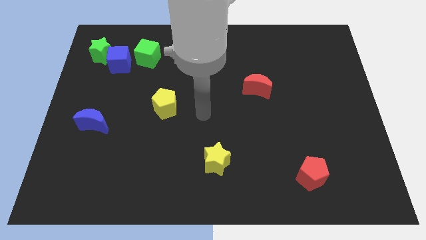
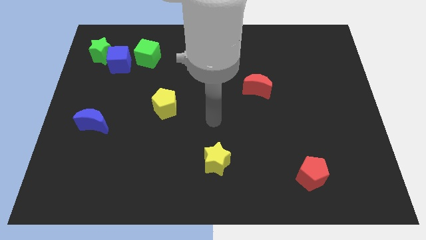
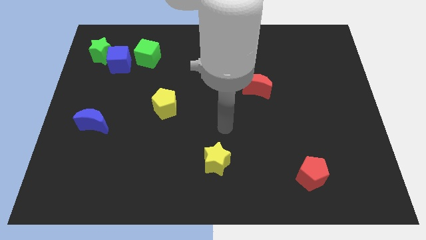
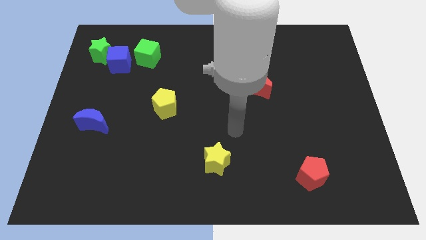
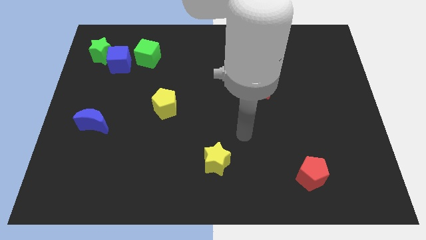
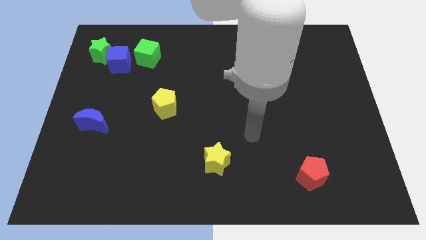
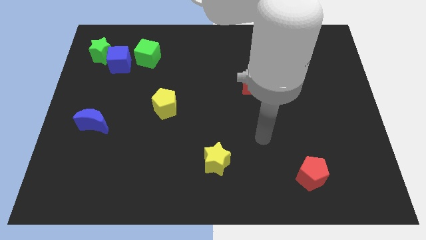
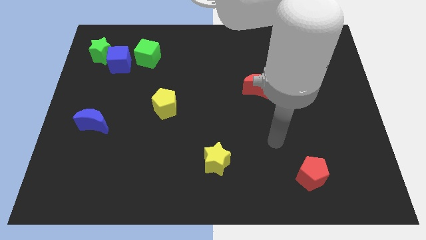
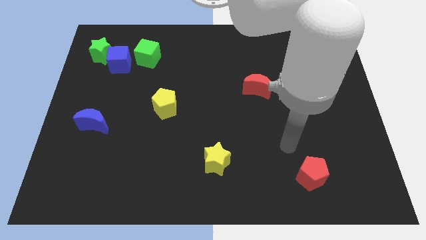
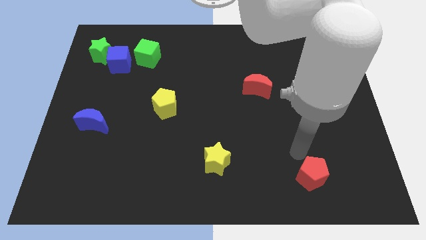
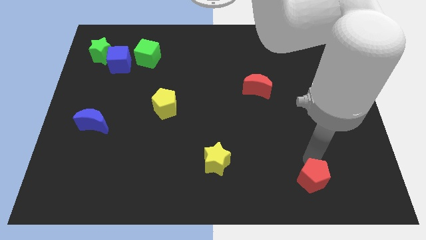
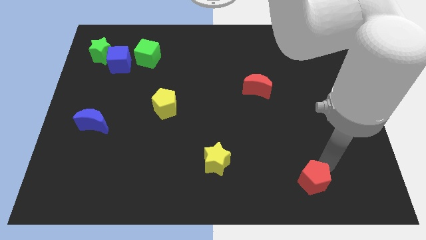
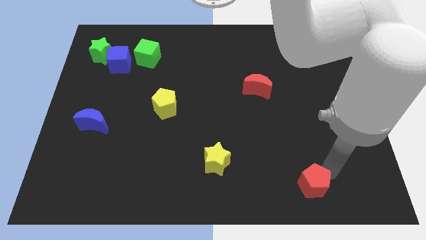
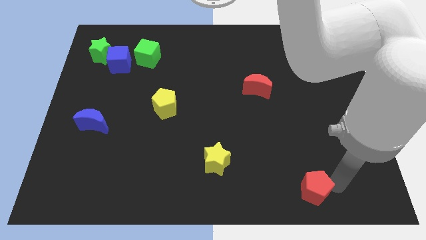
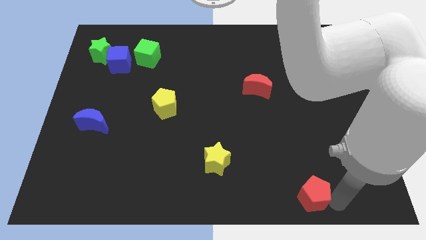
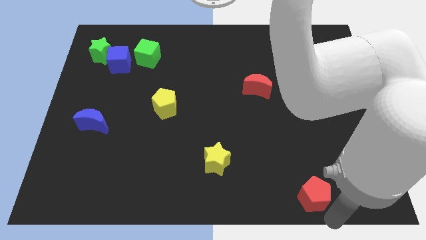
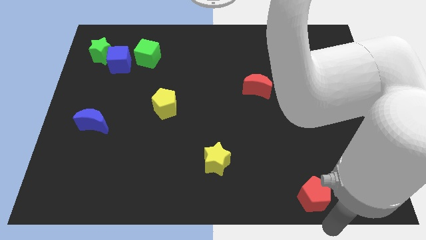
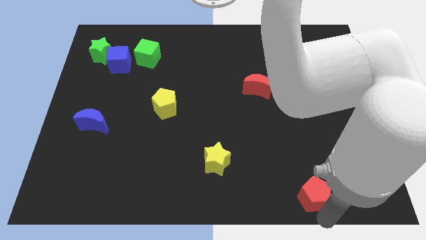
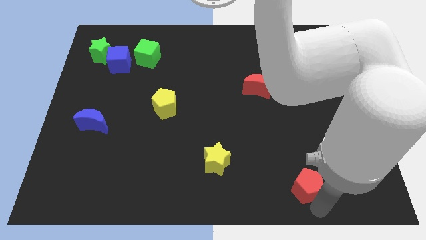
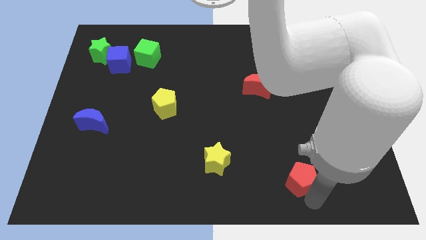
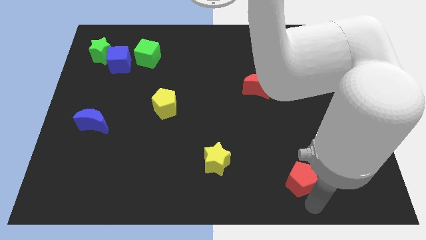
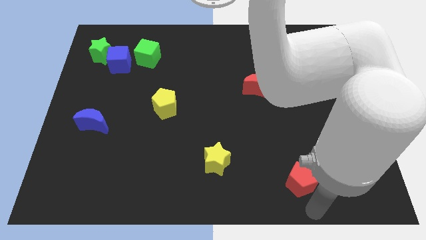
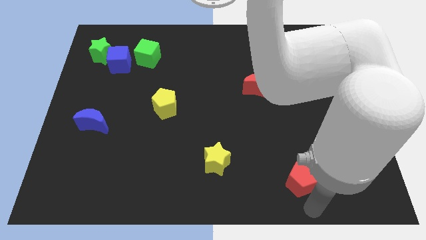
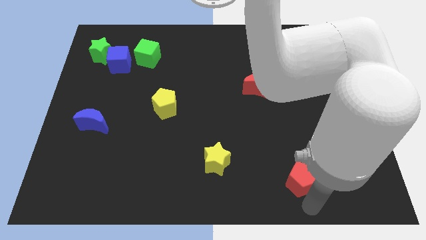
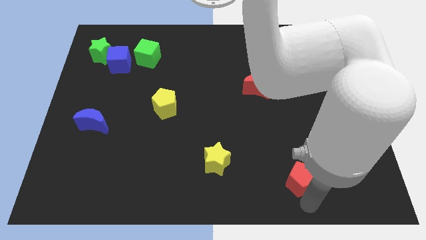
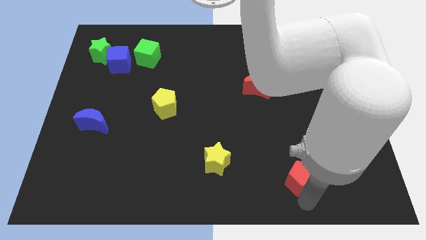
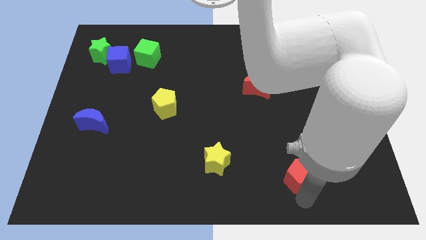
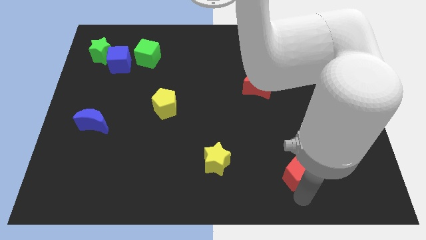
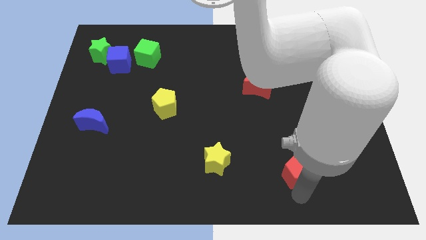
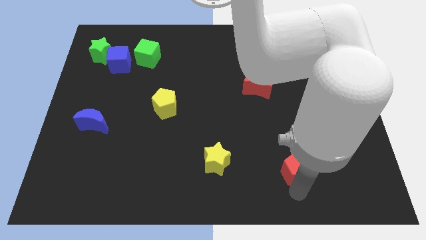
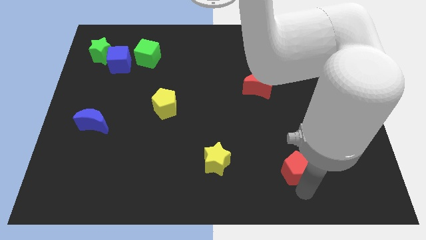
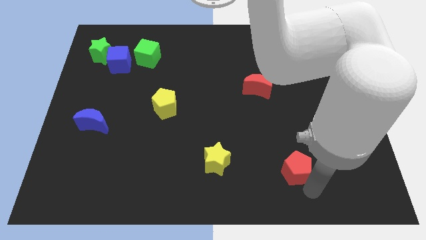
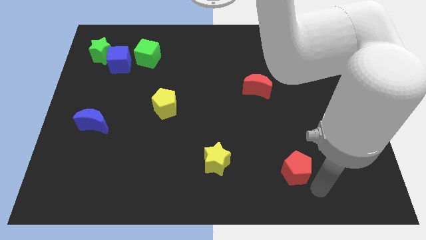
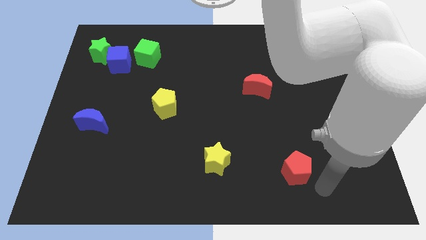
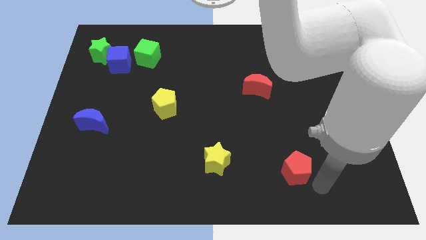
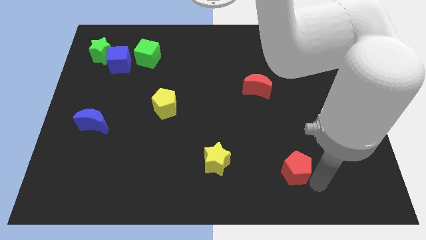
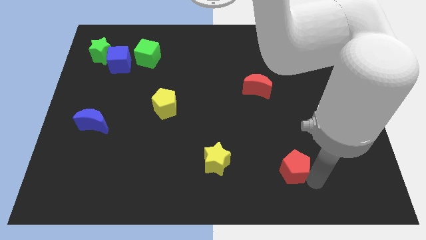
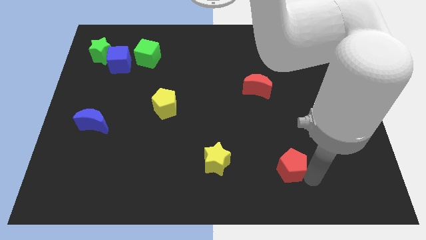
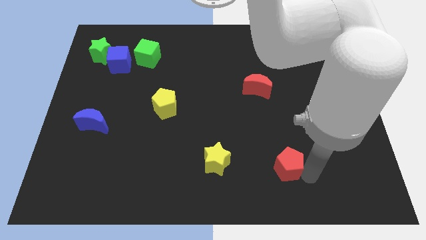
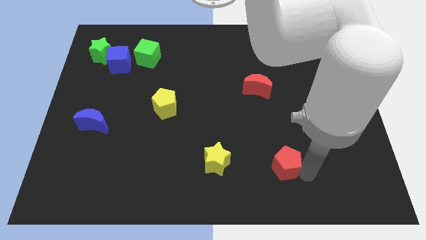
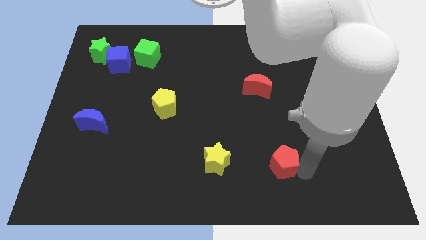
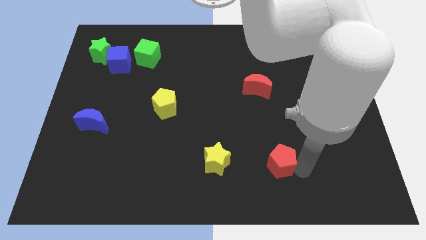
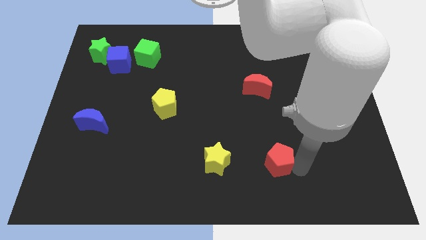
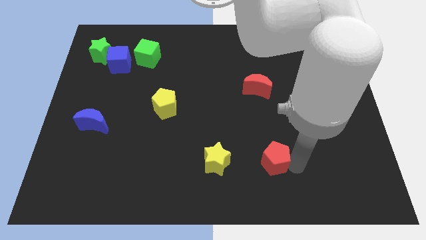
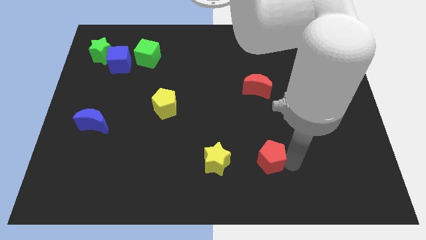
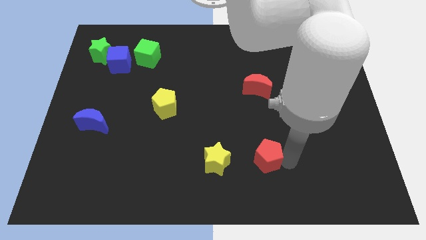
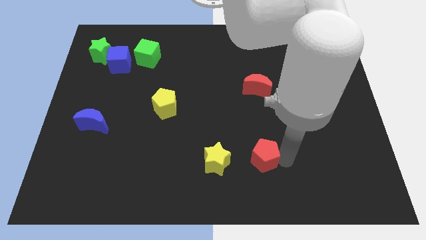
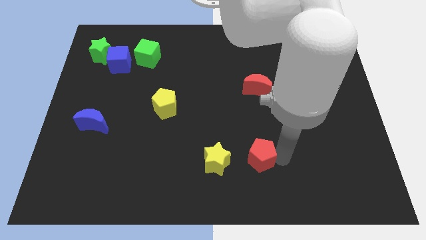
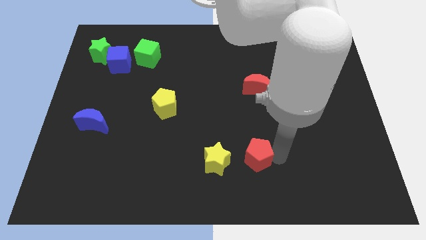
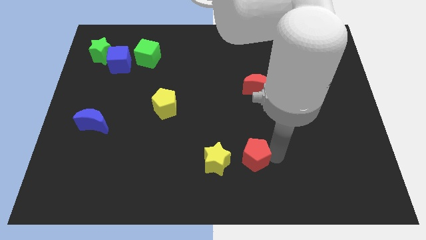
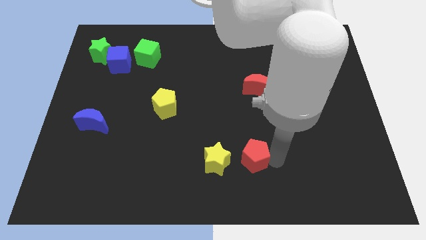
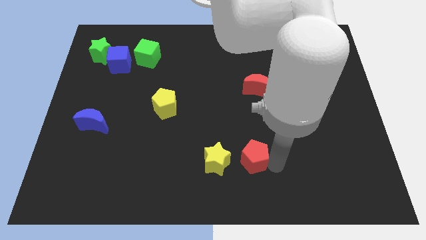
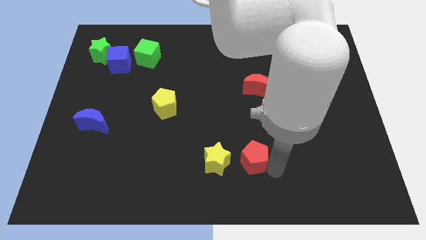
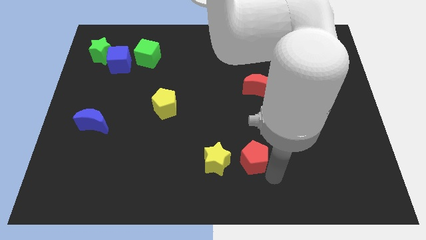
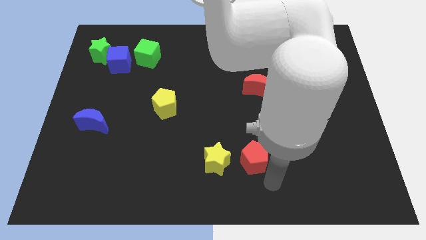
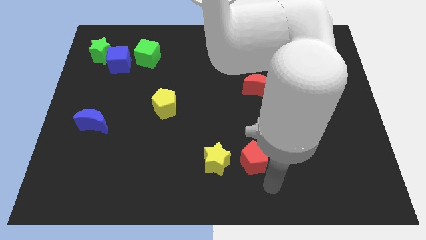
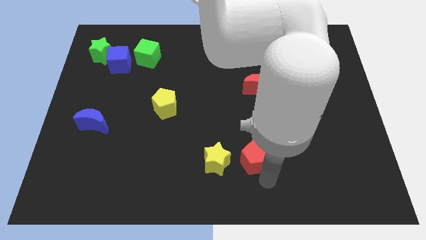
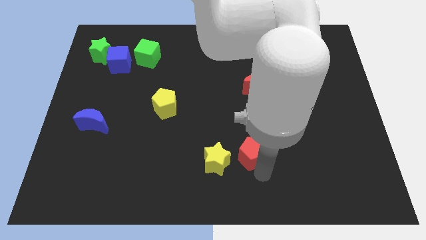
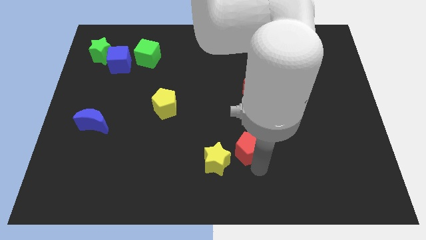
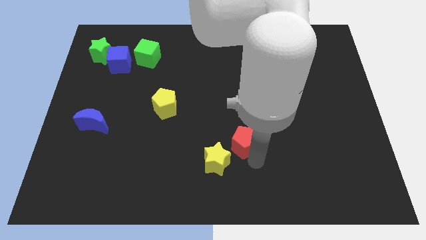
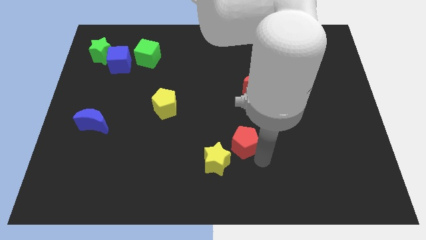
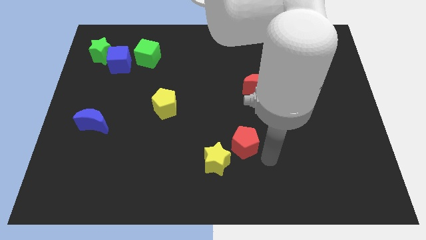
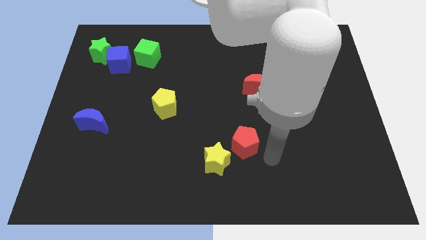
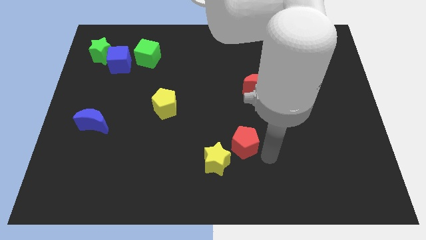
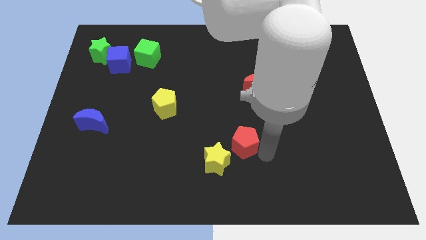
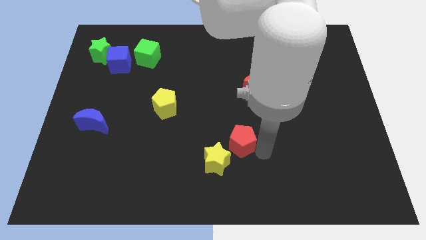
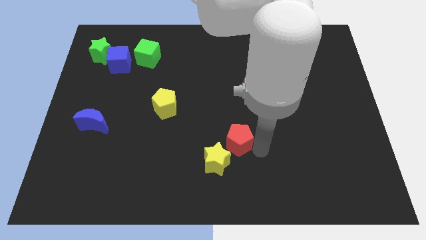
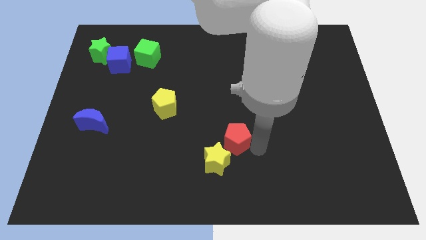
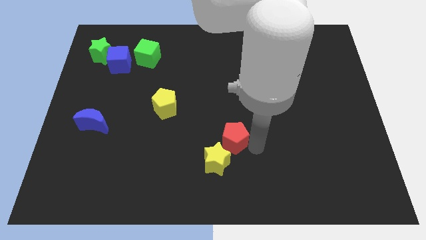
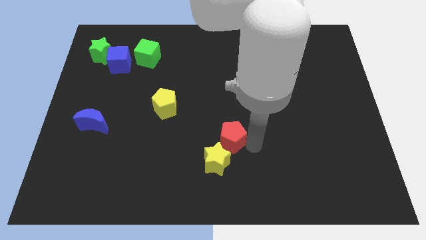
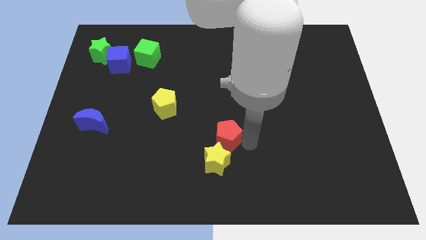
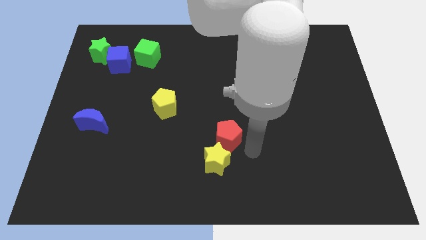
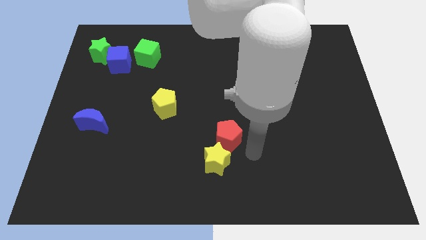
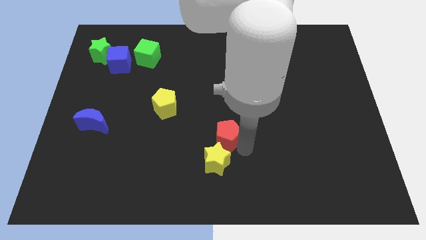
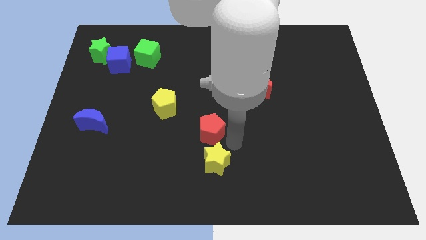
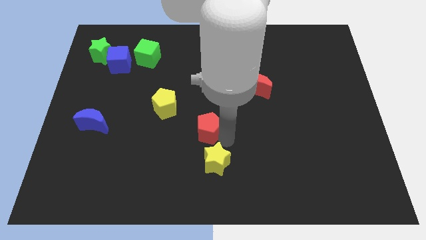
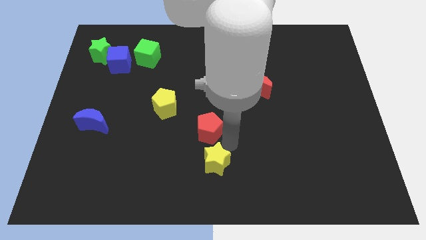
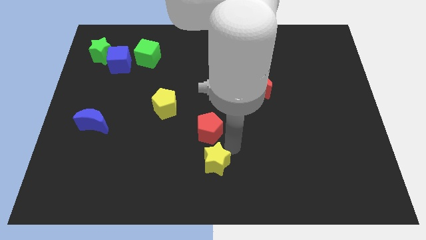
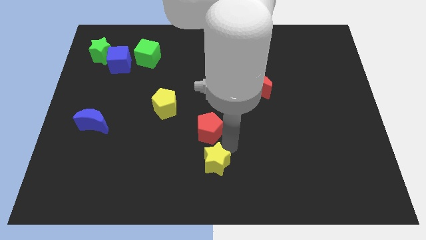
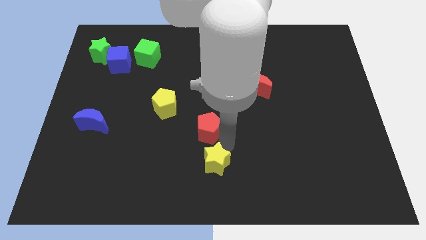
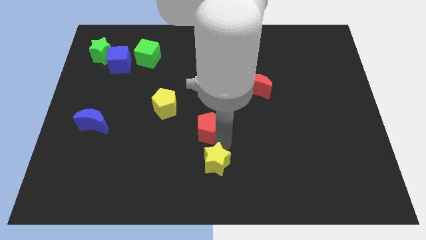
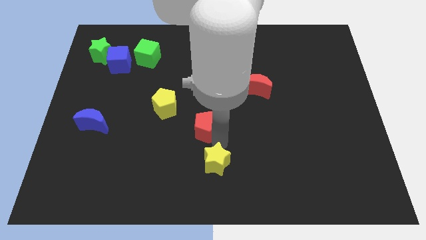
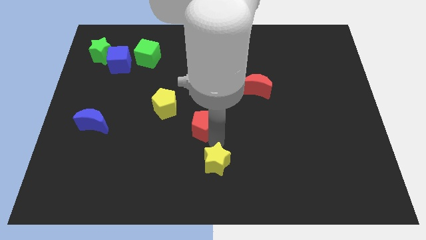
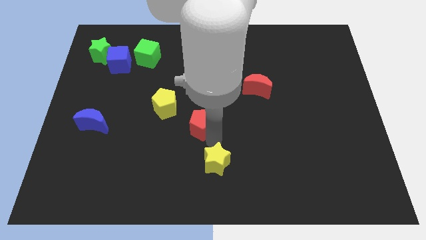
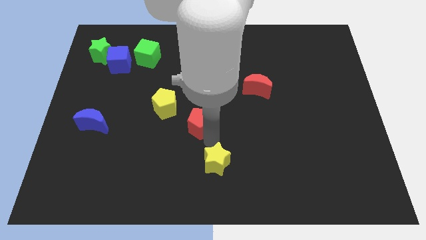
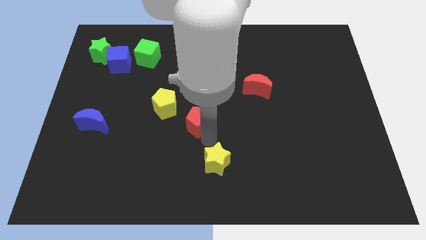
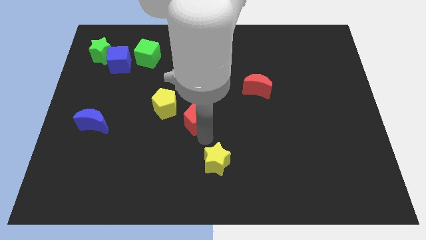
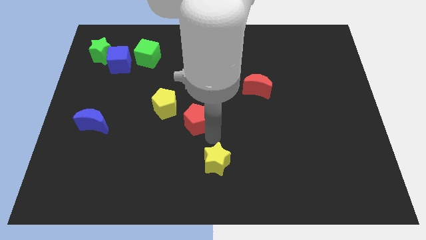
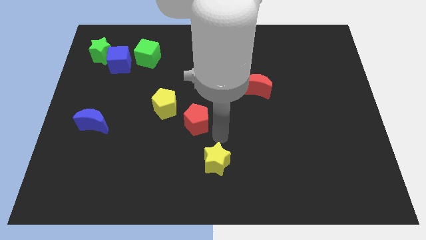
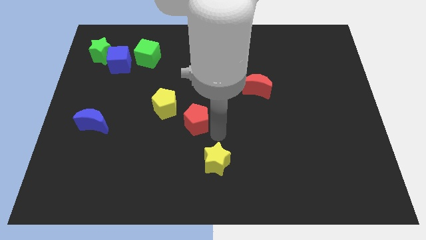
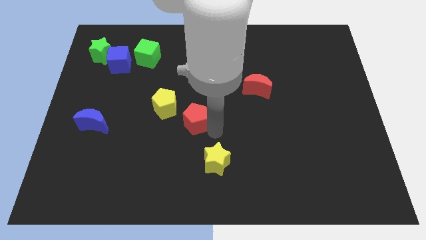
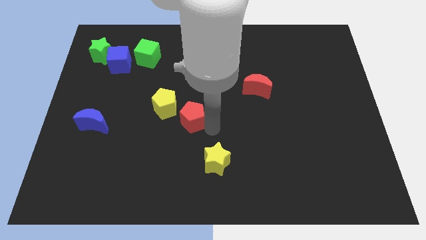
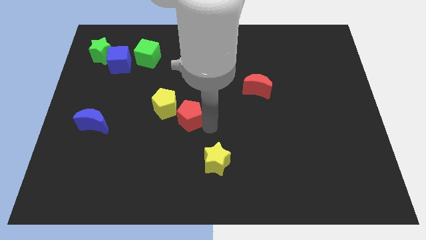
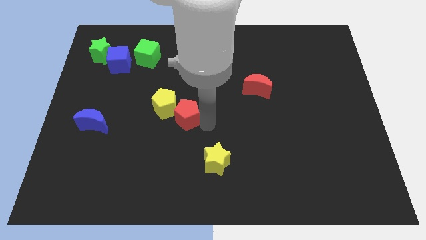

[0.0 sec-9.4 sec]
push the red pentagon to the yellow pentagon
